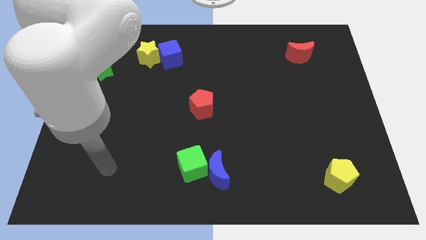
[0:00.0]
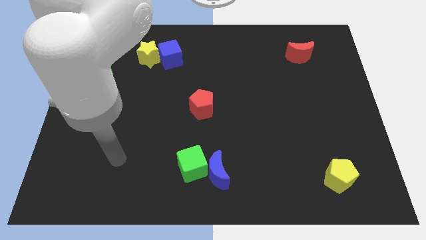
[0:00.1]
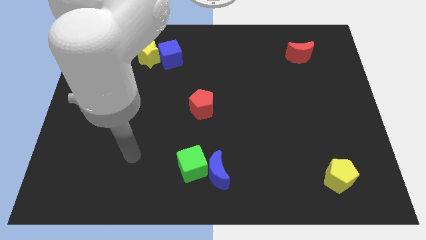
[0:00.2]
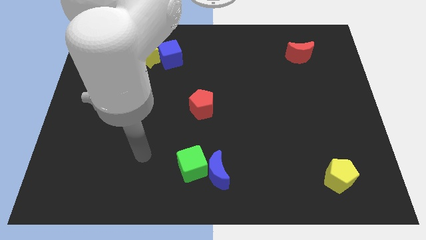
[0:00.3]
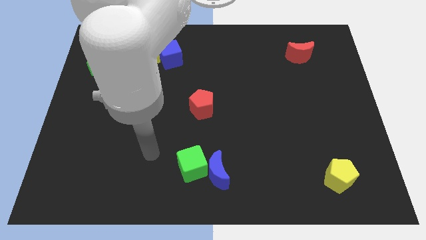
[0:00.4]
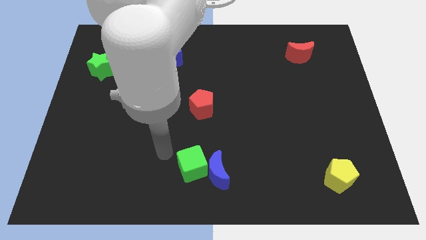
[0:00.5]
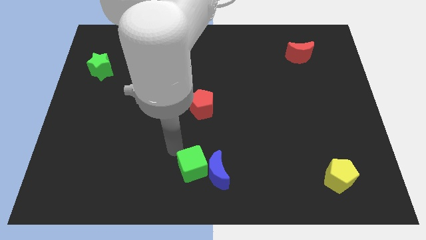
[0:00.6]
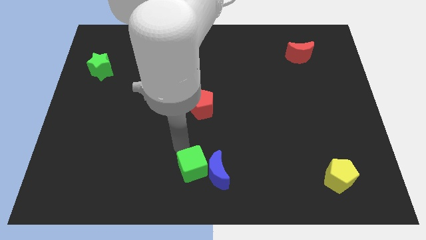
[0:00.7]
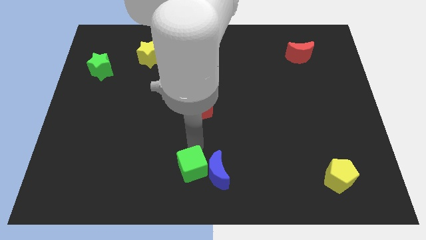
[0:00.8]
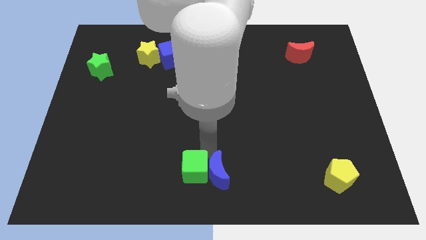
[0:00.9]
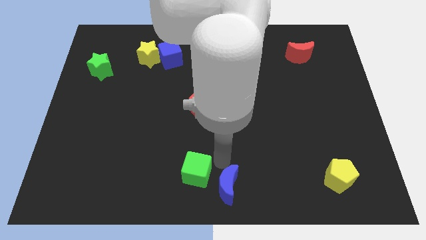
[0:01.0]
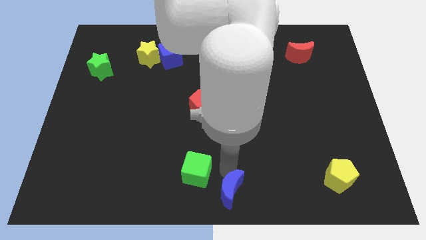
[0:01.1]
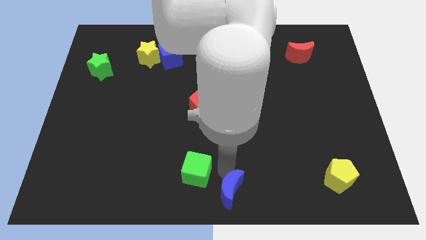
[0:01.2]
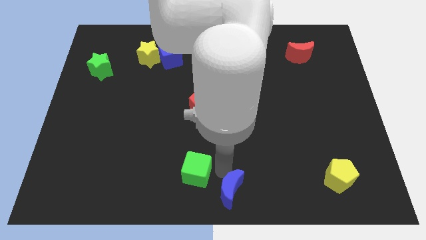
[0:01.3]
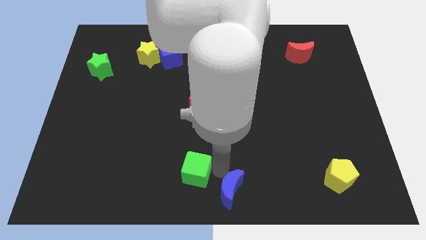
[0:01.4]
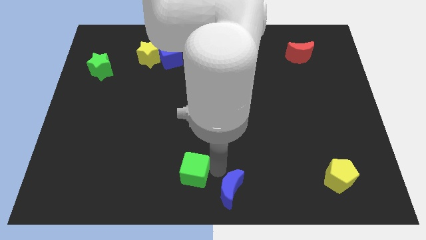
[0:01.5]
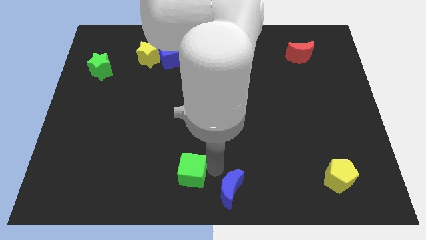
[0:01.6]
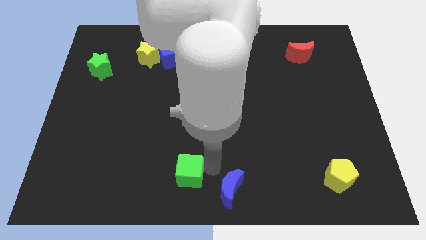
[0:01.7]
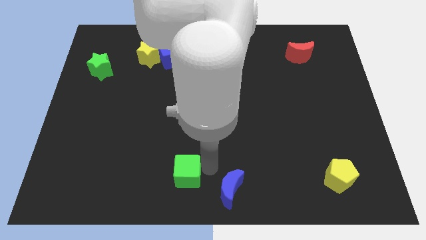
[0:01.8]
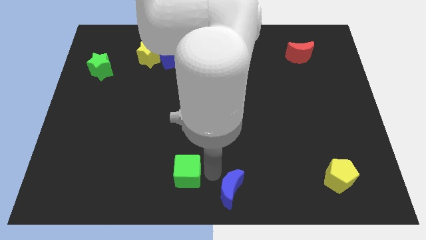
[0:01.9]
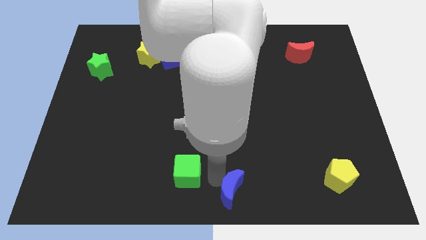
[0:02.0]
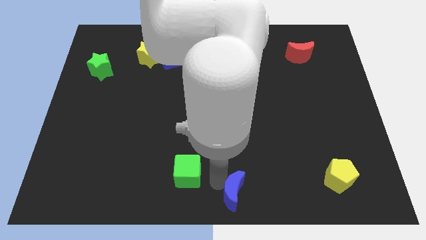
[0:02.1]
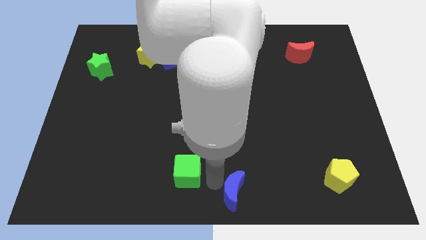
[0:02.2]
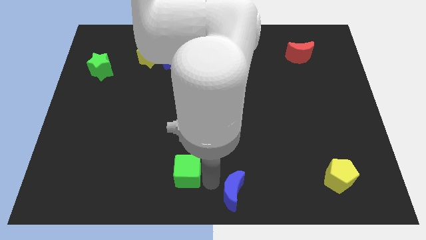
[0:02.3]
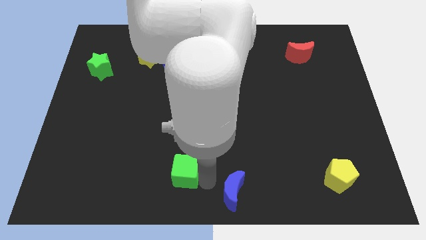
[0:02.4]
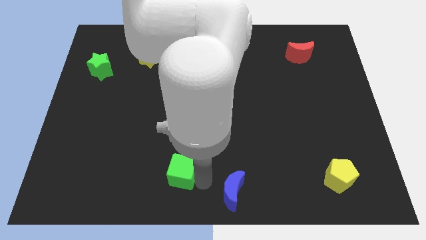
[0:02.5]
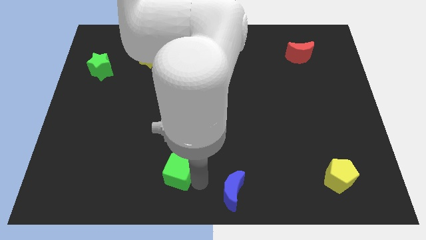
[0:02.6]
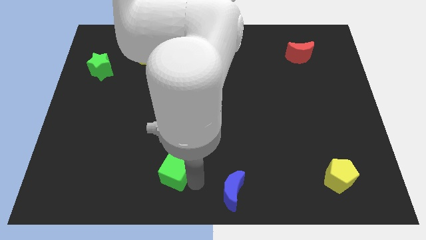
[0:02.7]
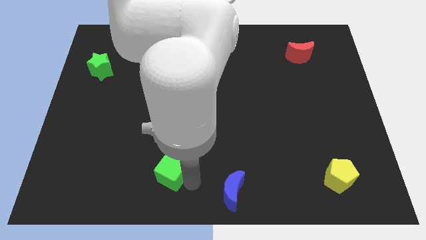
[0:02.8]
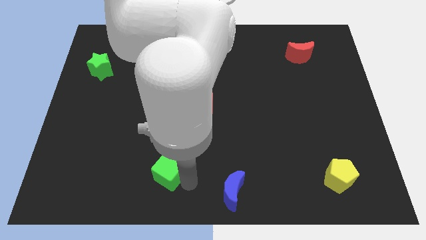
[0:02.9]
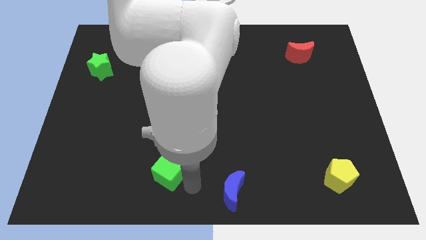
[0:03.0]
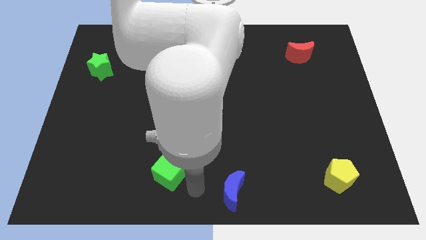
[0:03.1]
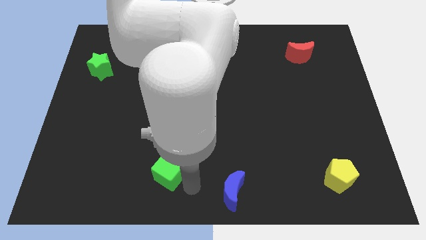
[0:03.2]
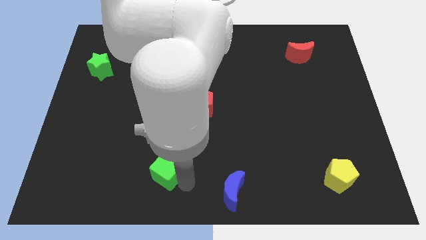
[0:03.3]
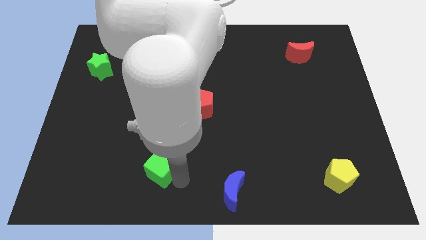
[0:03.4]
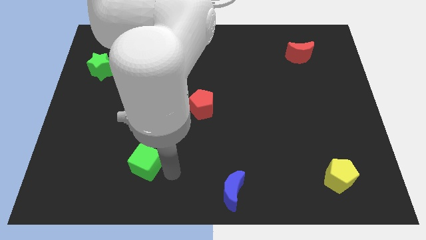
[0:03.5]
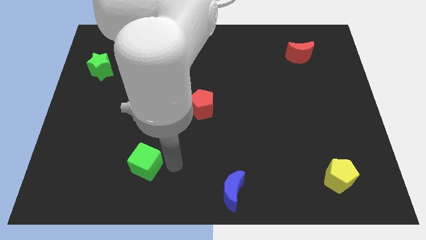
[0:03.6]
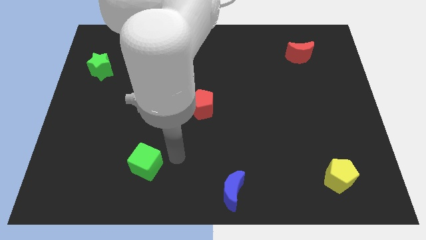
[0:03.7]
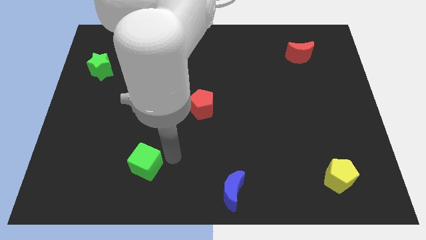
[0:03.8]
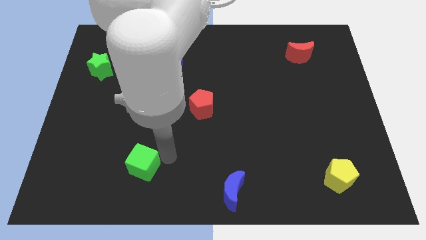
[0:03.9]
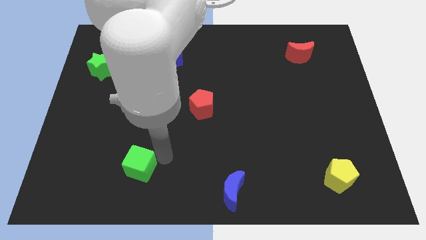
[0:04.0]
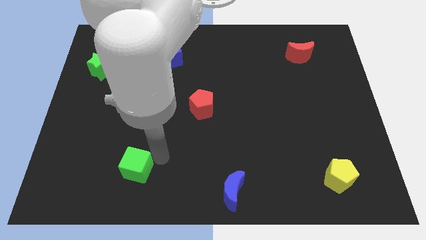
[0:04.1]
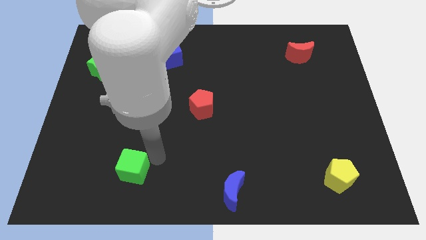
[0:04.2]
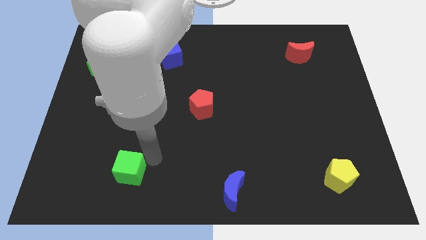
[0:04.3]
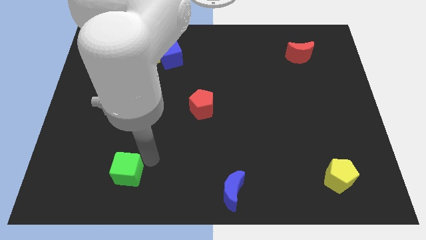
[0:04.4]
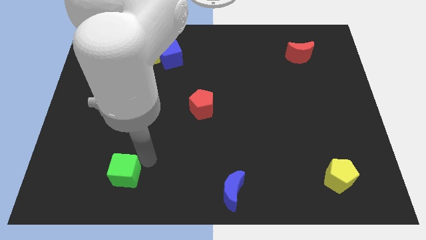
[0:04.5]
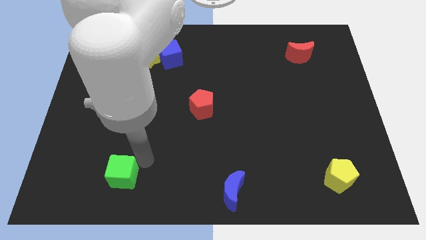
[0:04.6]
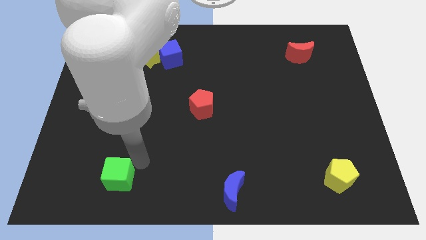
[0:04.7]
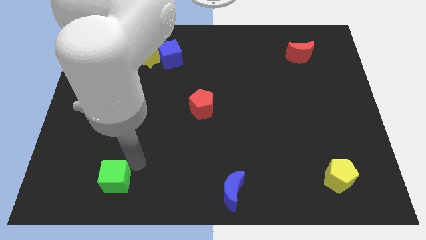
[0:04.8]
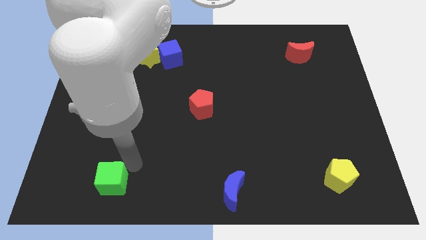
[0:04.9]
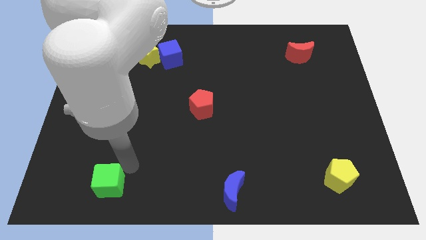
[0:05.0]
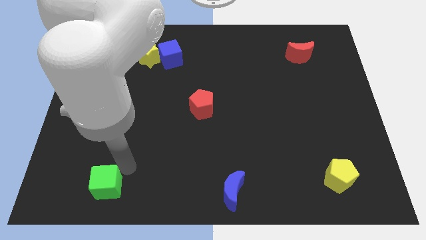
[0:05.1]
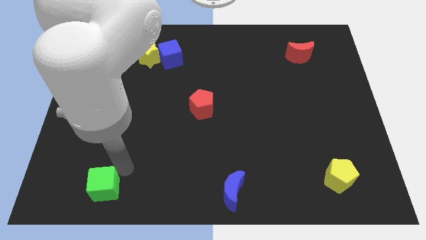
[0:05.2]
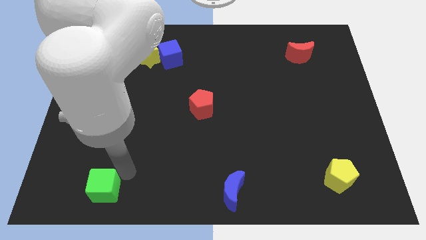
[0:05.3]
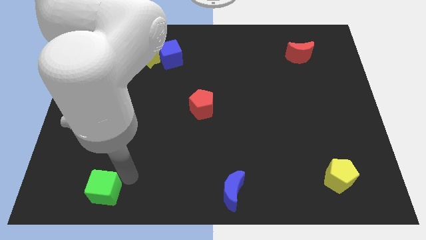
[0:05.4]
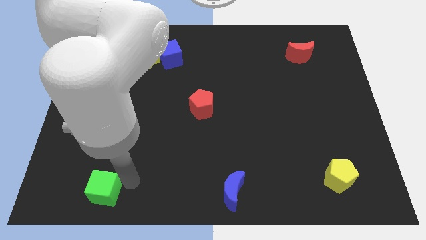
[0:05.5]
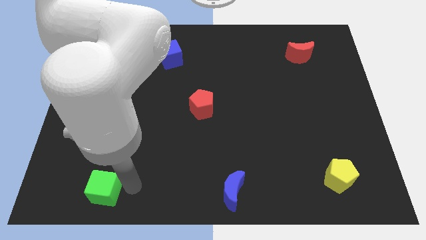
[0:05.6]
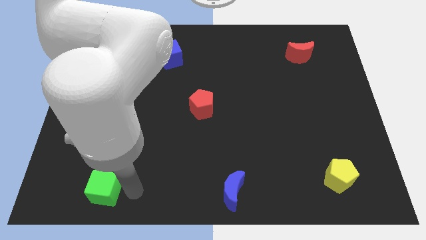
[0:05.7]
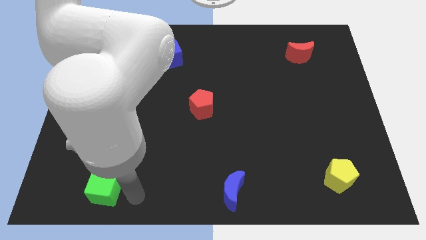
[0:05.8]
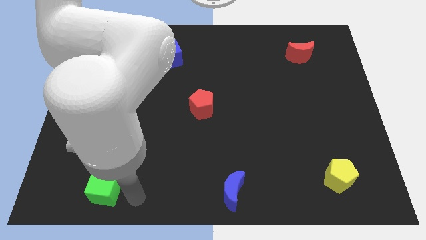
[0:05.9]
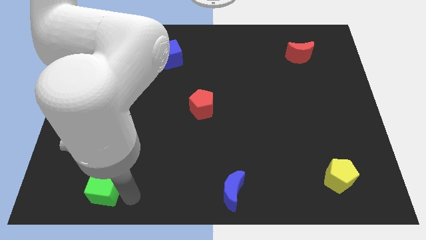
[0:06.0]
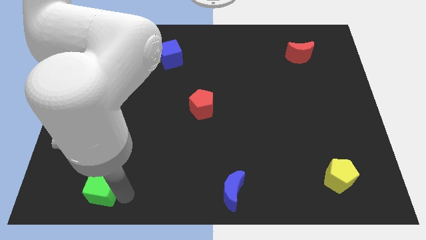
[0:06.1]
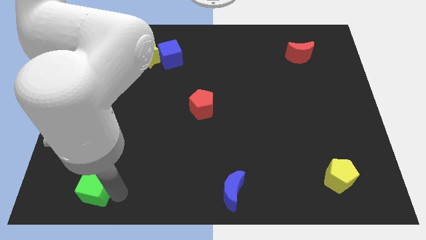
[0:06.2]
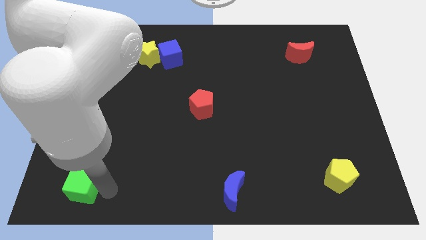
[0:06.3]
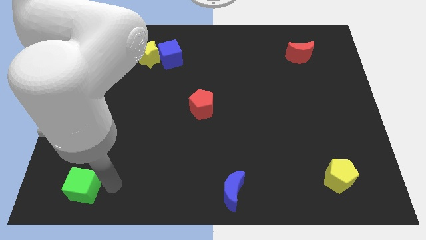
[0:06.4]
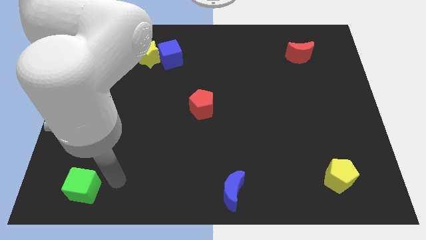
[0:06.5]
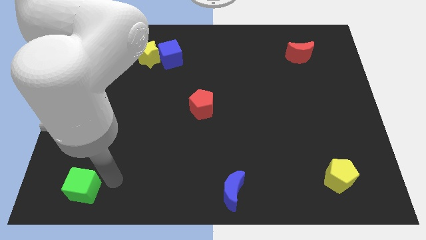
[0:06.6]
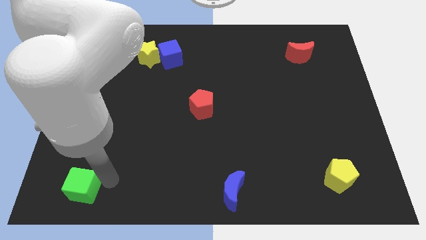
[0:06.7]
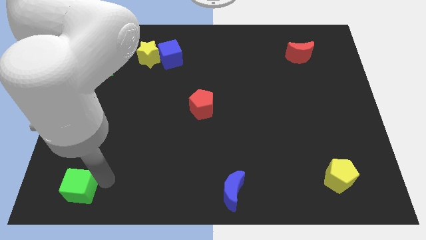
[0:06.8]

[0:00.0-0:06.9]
put the green cube to the lower left corner
